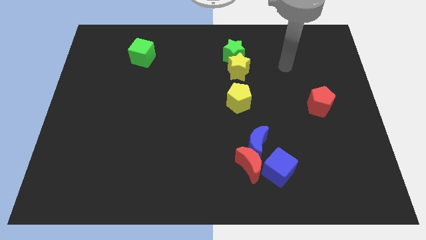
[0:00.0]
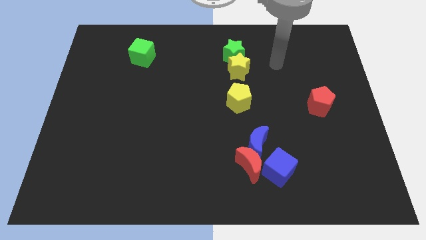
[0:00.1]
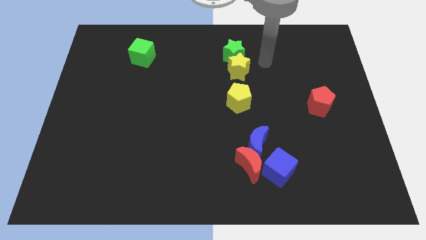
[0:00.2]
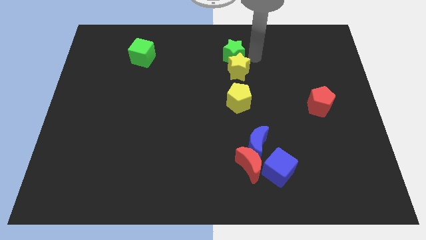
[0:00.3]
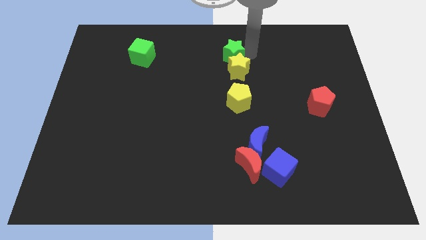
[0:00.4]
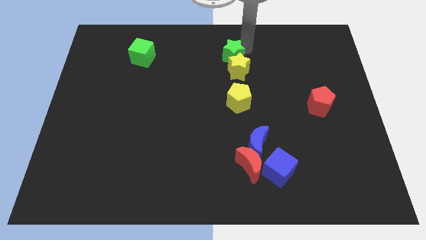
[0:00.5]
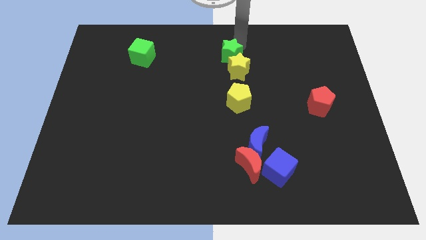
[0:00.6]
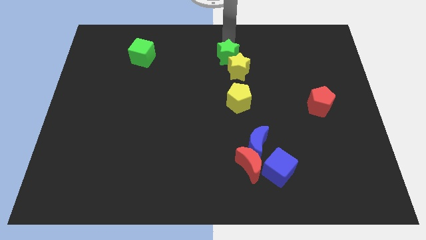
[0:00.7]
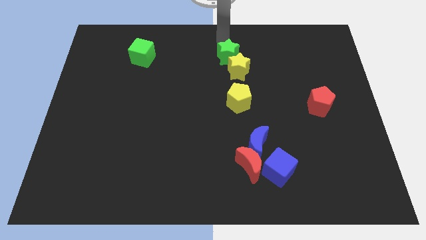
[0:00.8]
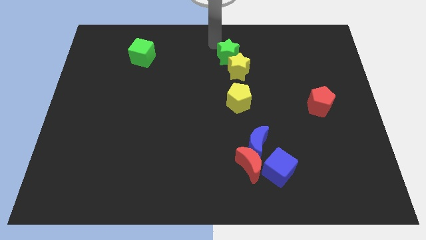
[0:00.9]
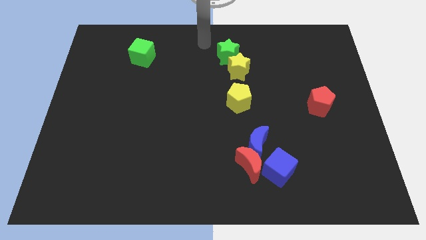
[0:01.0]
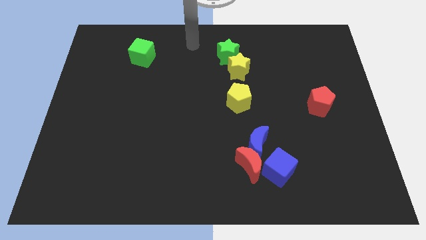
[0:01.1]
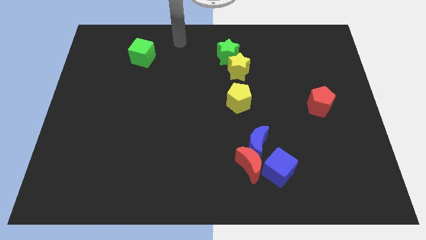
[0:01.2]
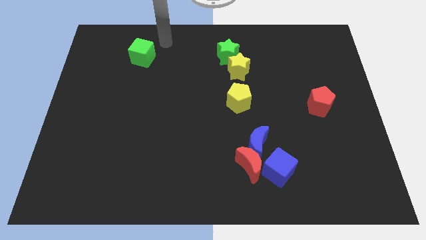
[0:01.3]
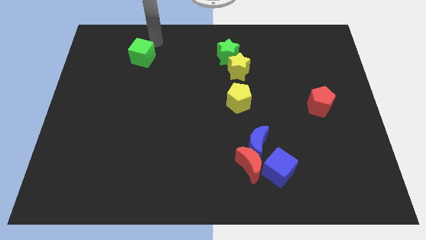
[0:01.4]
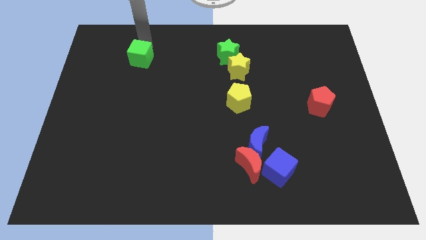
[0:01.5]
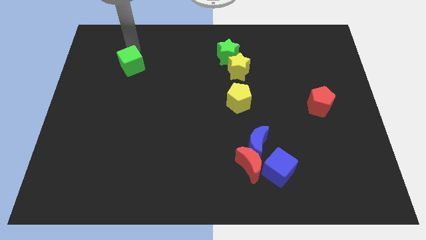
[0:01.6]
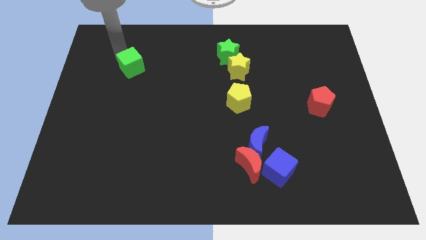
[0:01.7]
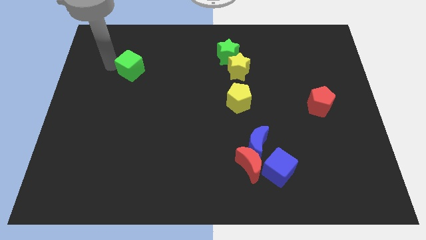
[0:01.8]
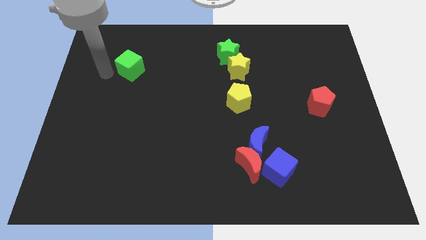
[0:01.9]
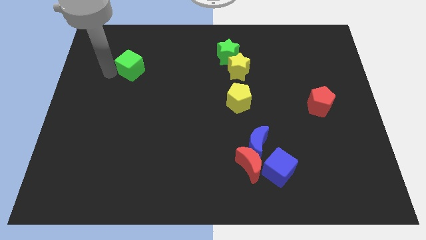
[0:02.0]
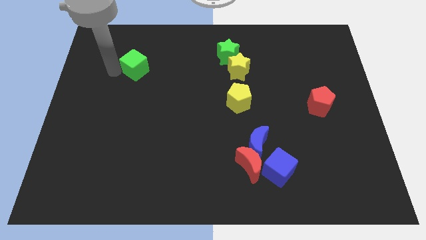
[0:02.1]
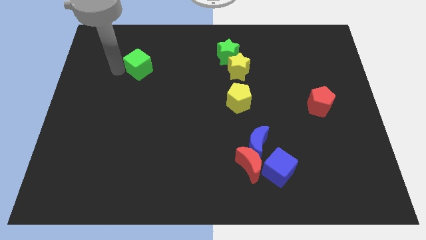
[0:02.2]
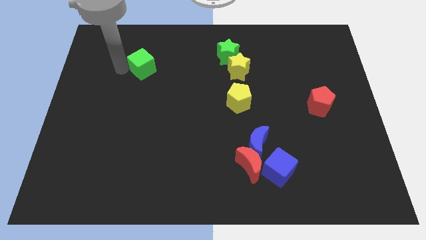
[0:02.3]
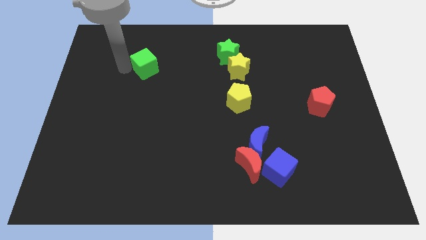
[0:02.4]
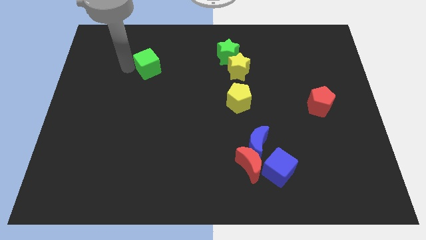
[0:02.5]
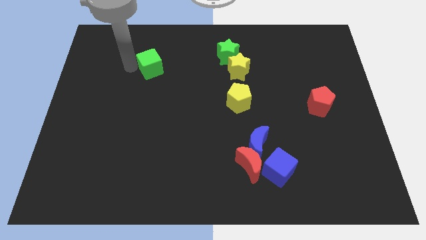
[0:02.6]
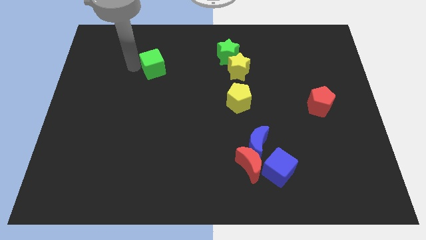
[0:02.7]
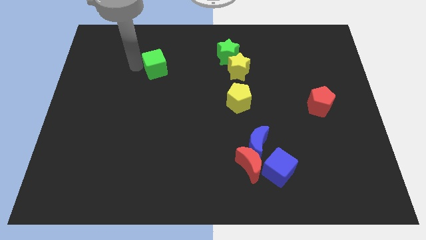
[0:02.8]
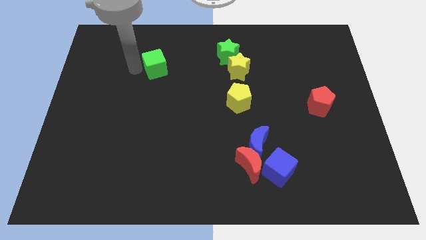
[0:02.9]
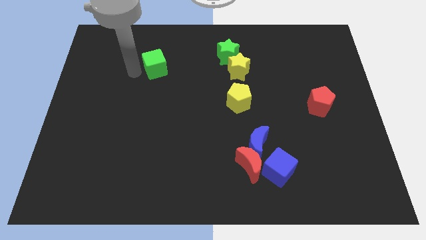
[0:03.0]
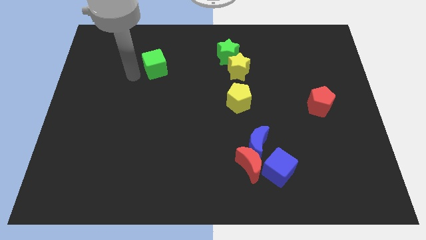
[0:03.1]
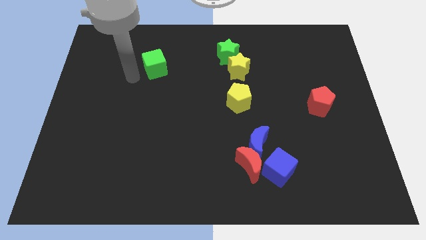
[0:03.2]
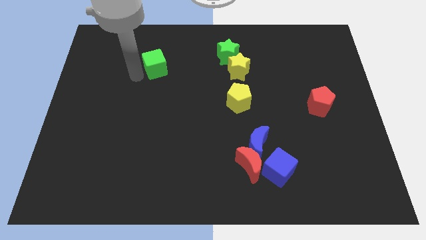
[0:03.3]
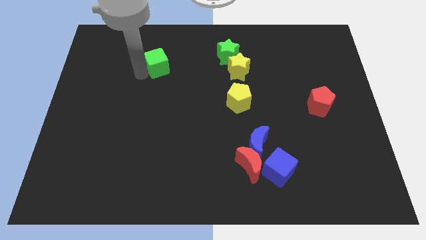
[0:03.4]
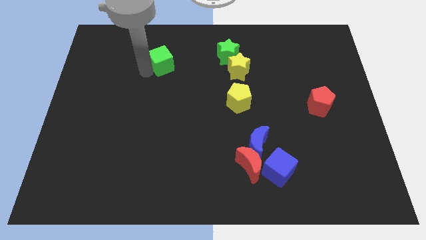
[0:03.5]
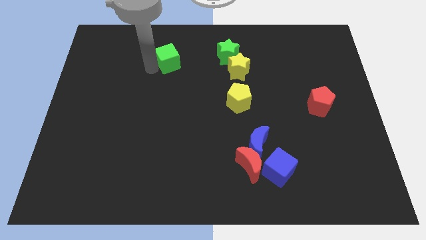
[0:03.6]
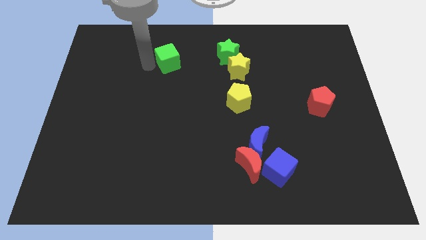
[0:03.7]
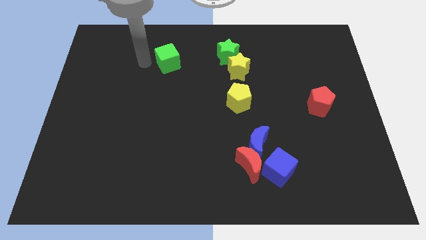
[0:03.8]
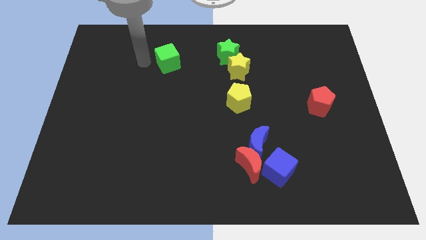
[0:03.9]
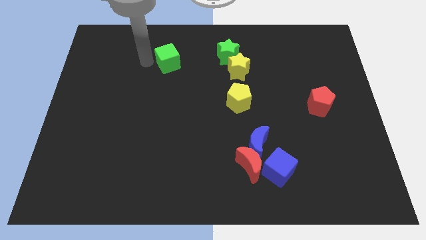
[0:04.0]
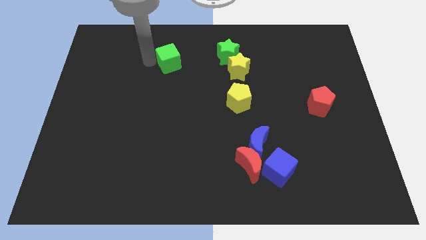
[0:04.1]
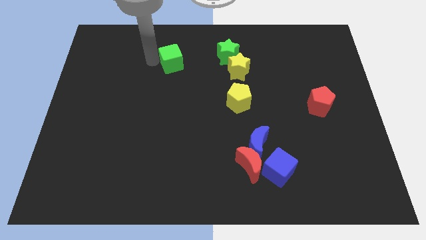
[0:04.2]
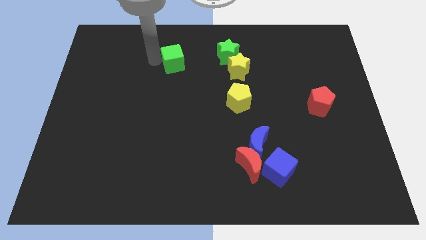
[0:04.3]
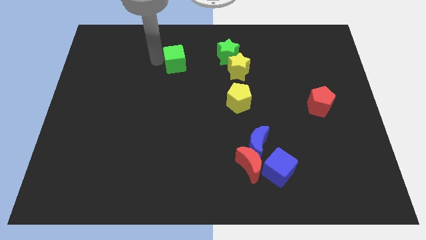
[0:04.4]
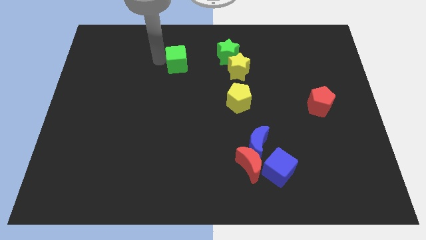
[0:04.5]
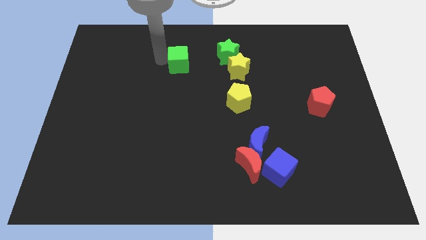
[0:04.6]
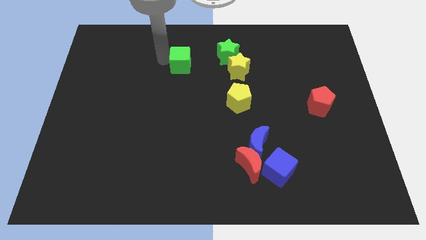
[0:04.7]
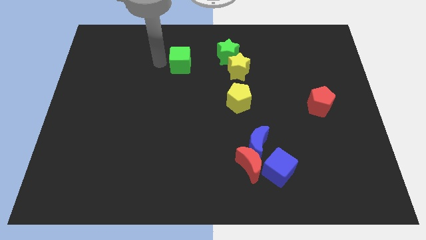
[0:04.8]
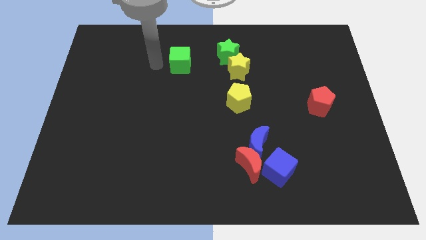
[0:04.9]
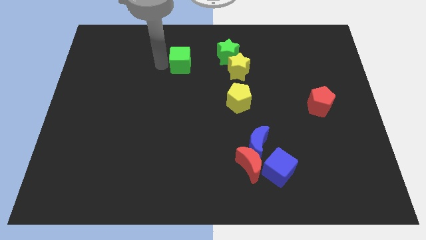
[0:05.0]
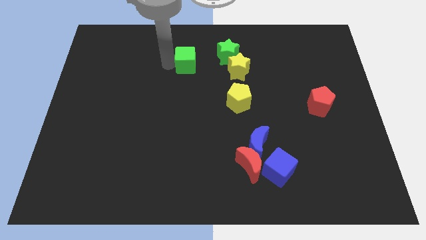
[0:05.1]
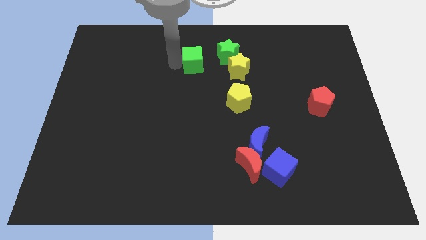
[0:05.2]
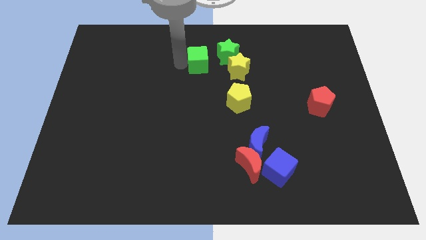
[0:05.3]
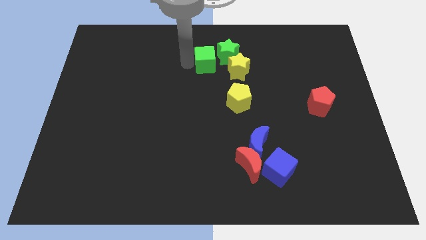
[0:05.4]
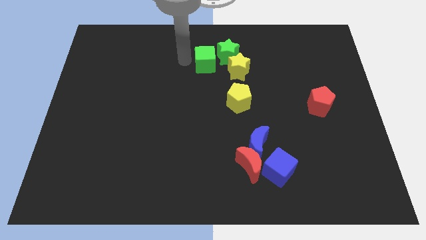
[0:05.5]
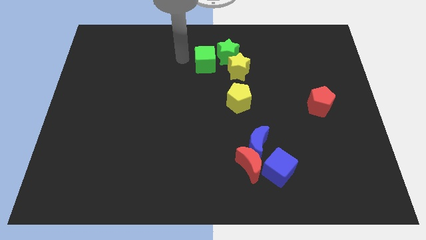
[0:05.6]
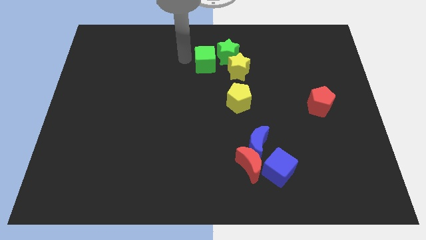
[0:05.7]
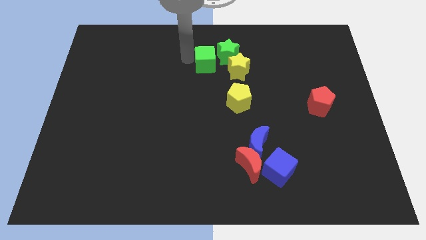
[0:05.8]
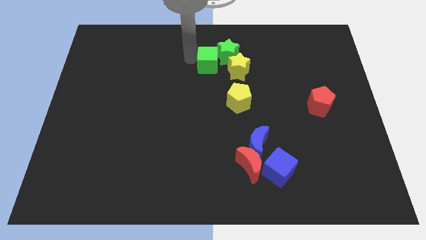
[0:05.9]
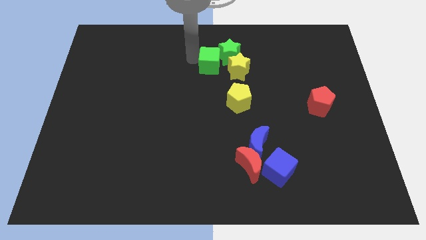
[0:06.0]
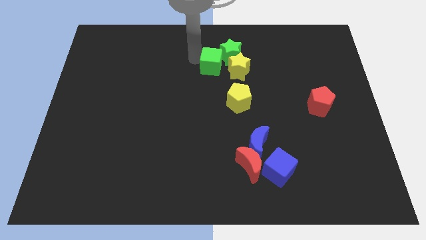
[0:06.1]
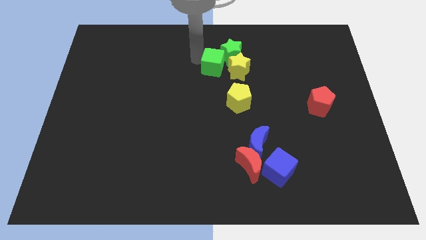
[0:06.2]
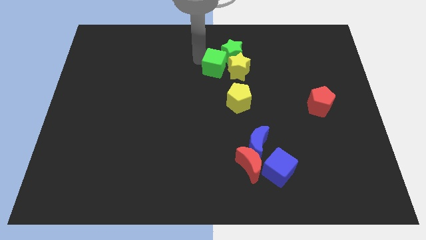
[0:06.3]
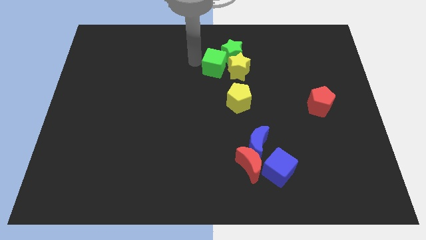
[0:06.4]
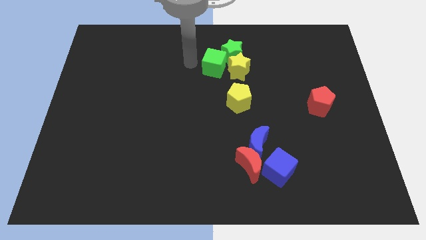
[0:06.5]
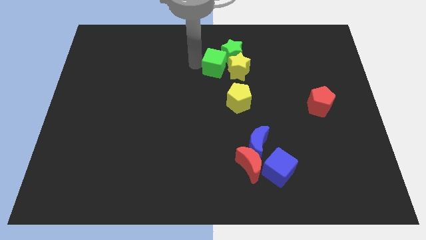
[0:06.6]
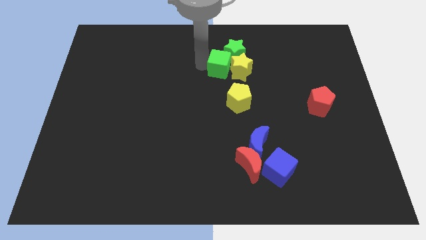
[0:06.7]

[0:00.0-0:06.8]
slide the green cube close to the yellow star

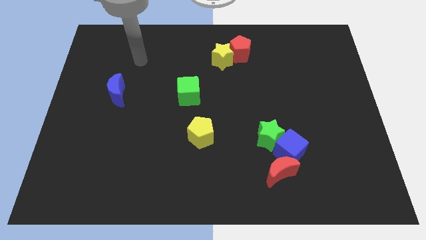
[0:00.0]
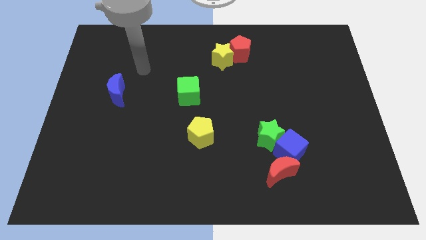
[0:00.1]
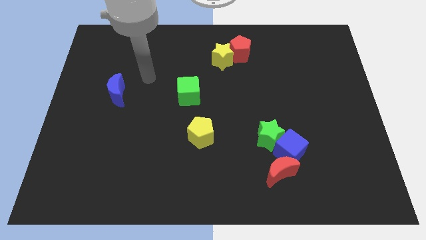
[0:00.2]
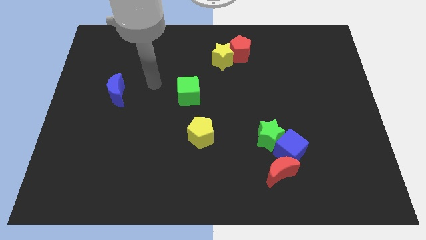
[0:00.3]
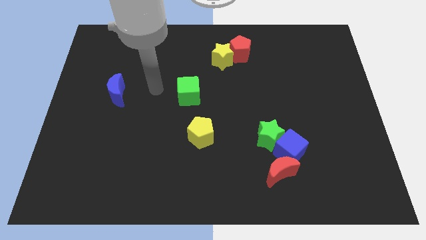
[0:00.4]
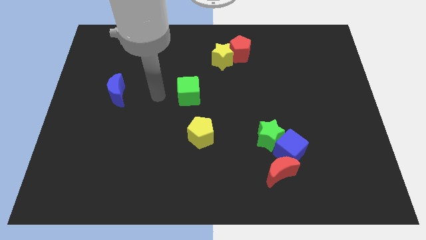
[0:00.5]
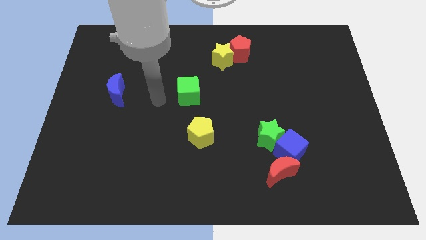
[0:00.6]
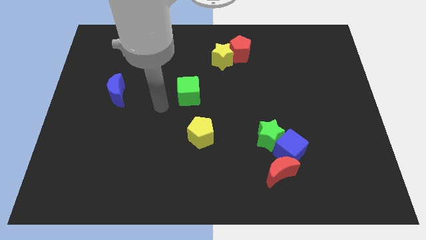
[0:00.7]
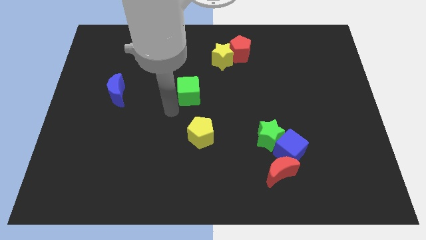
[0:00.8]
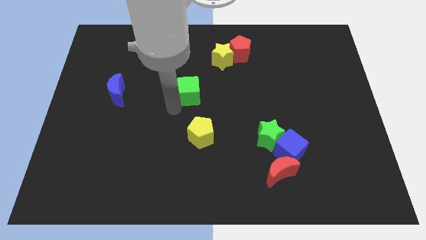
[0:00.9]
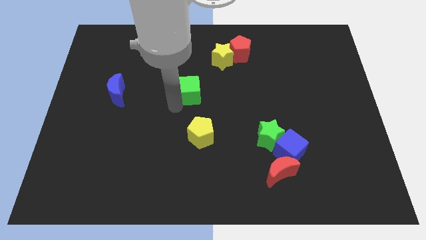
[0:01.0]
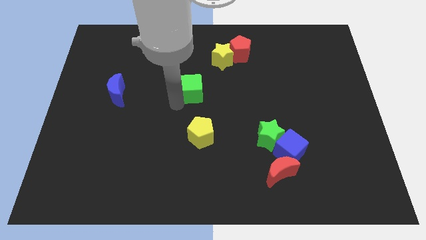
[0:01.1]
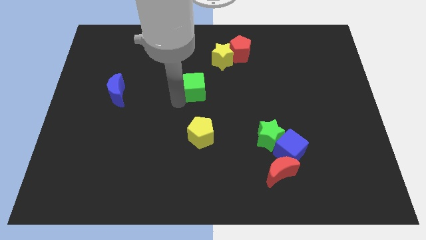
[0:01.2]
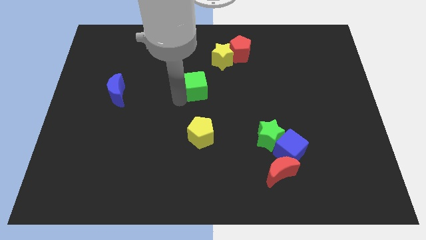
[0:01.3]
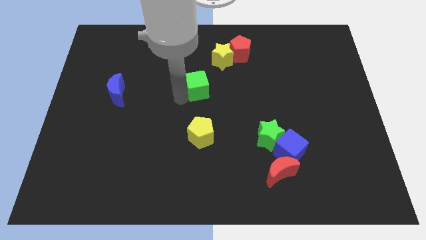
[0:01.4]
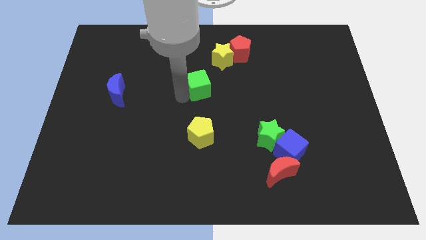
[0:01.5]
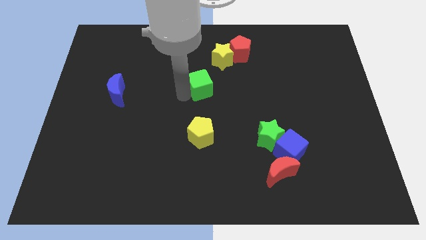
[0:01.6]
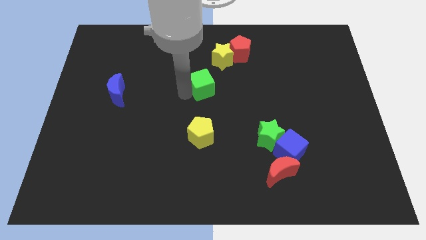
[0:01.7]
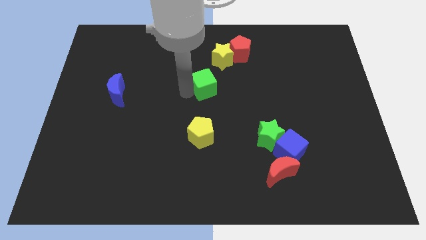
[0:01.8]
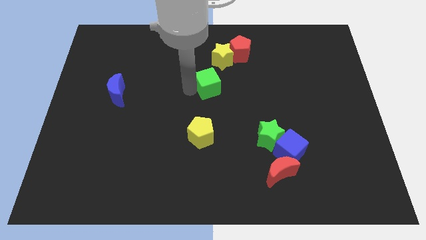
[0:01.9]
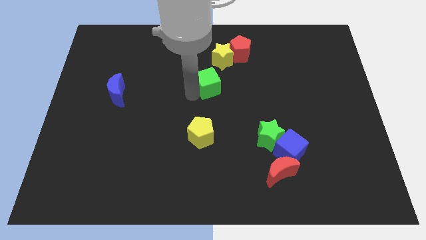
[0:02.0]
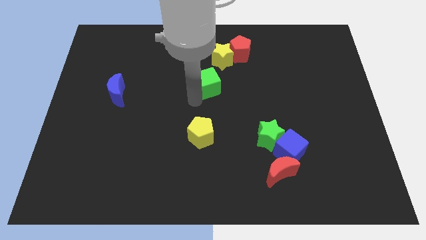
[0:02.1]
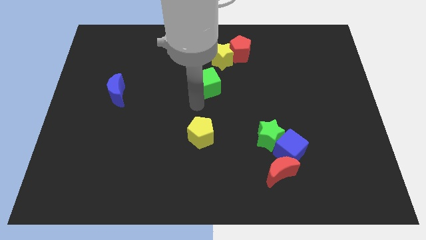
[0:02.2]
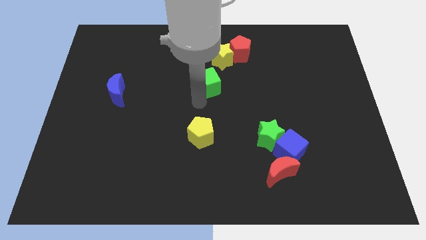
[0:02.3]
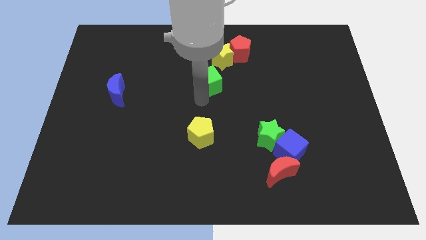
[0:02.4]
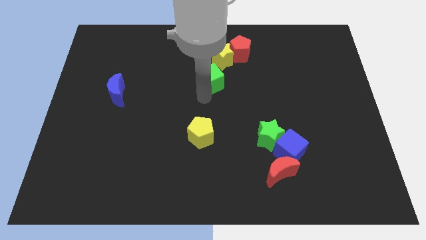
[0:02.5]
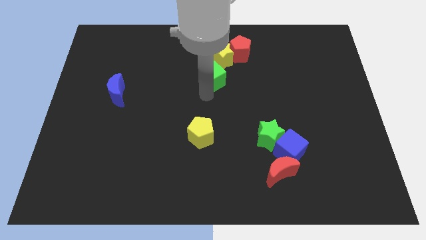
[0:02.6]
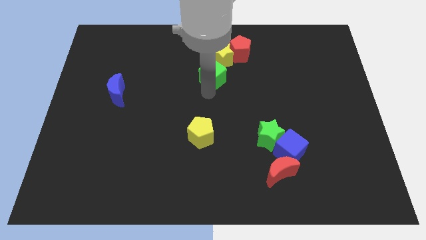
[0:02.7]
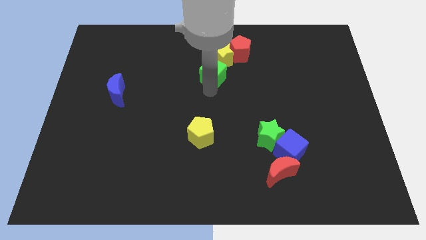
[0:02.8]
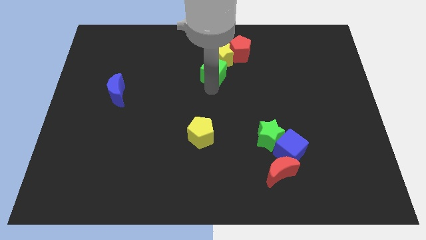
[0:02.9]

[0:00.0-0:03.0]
put the green cube towards the yellow star
